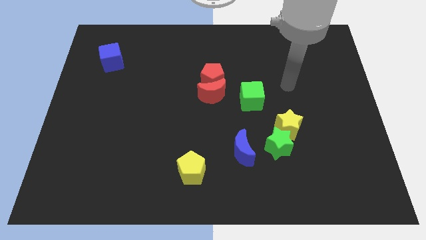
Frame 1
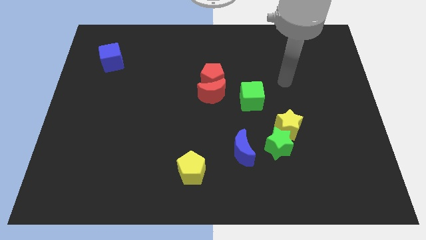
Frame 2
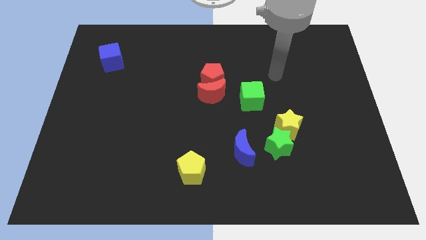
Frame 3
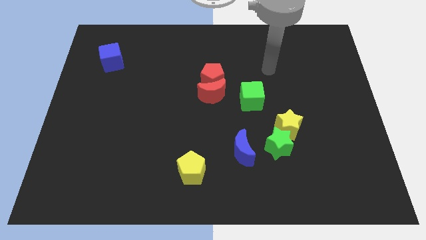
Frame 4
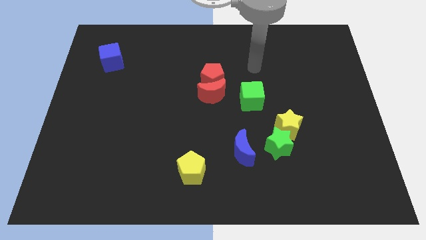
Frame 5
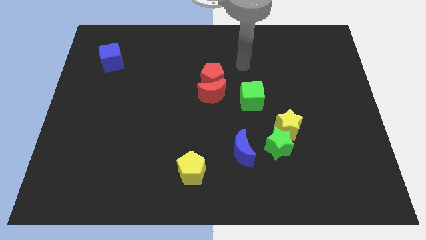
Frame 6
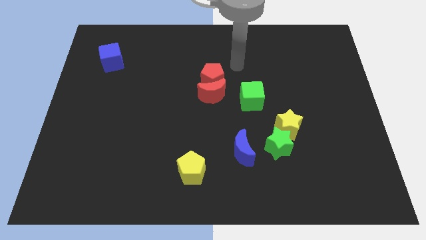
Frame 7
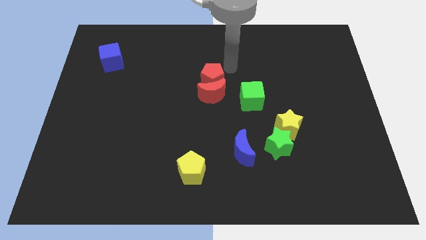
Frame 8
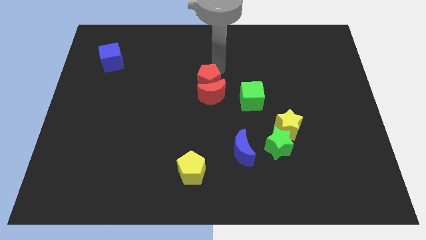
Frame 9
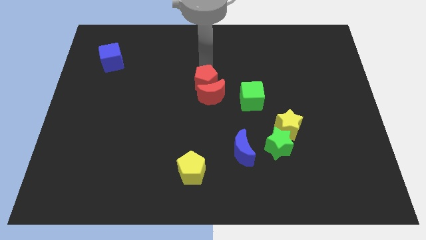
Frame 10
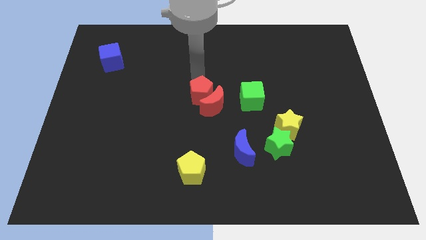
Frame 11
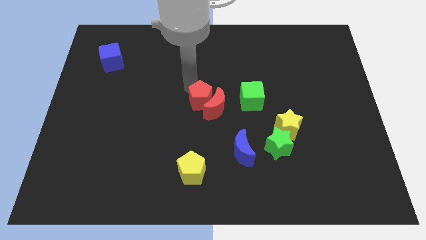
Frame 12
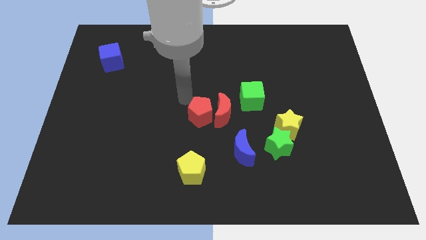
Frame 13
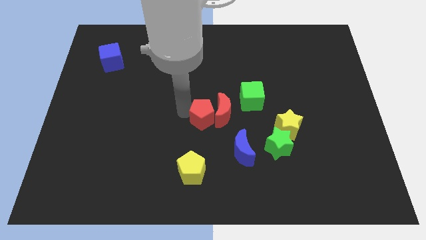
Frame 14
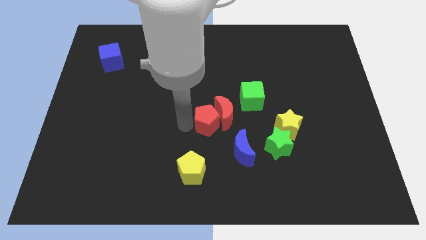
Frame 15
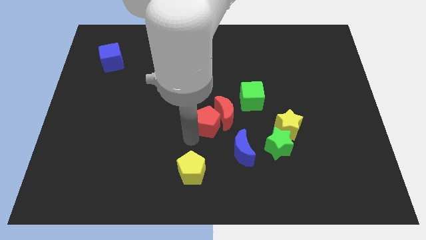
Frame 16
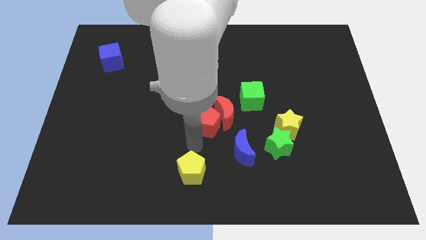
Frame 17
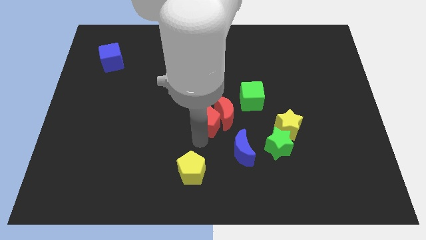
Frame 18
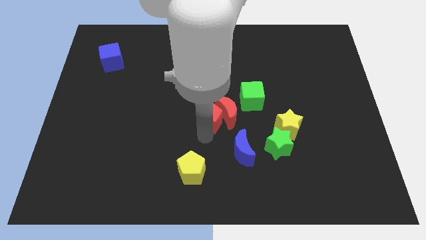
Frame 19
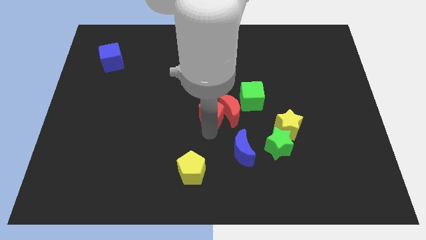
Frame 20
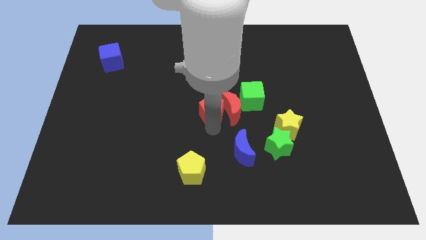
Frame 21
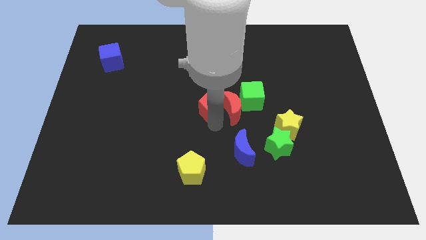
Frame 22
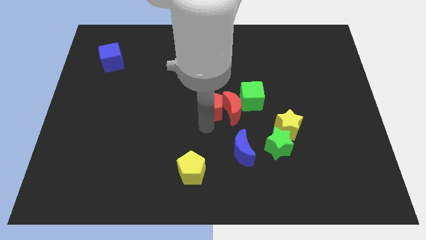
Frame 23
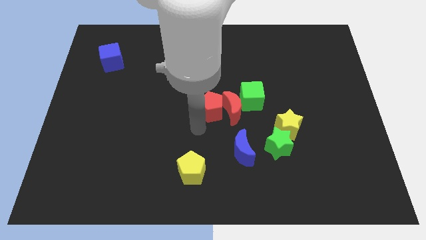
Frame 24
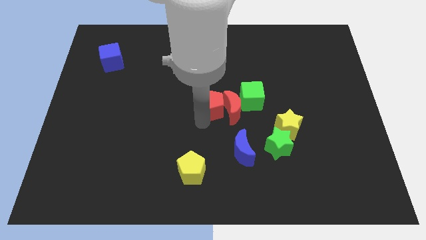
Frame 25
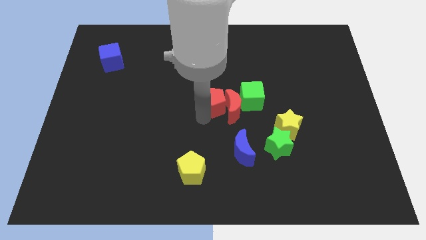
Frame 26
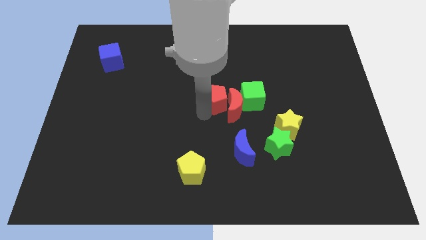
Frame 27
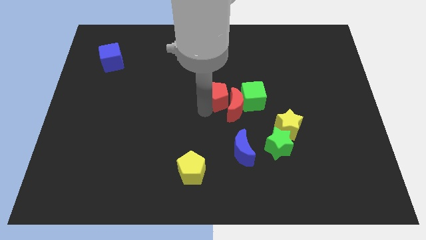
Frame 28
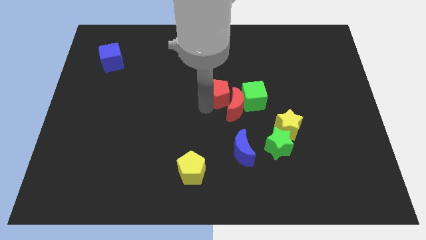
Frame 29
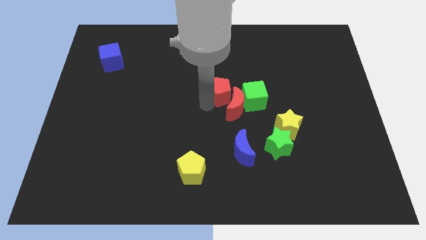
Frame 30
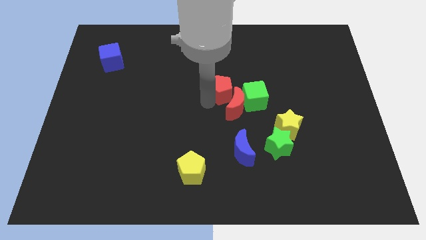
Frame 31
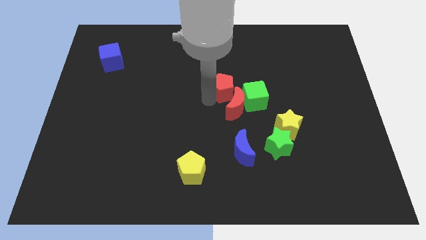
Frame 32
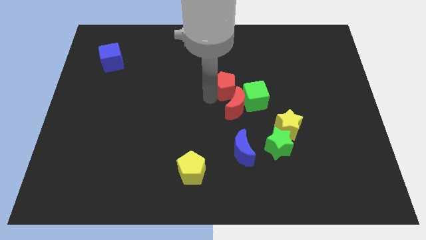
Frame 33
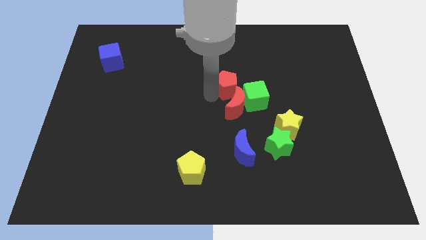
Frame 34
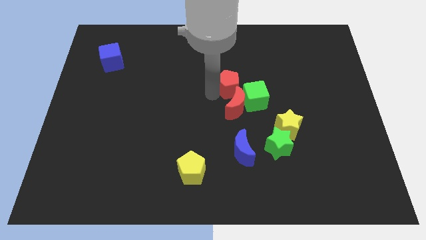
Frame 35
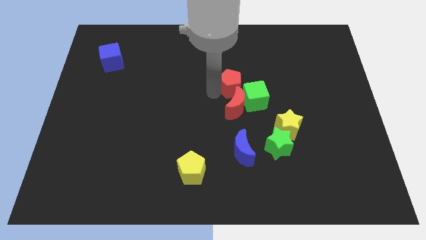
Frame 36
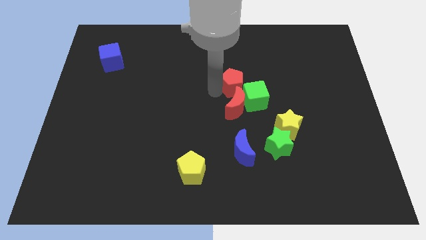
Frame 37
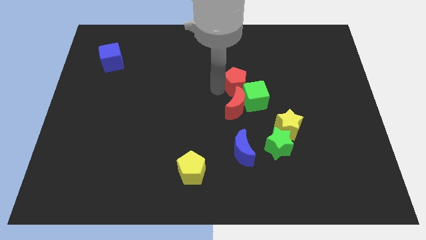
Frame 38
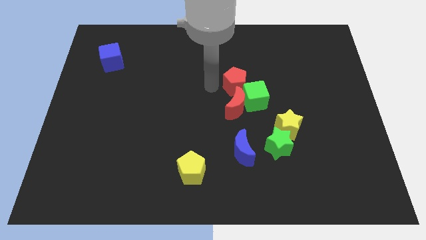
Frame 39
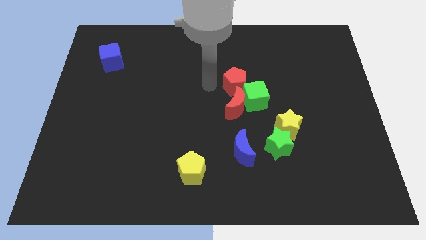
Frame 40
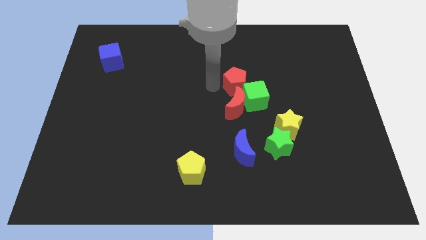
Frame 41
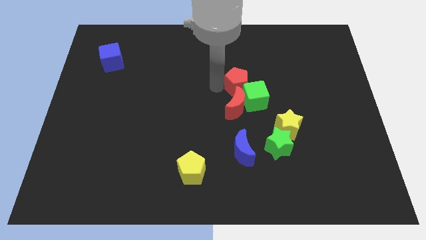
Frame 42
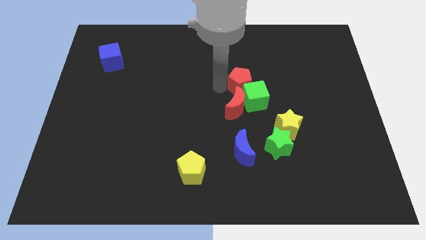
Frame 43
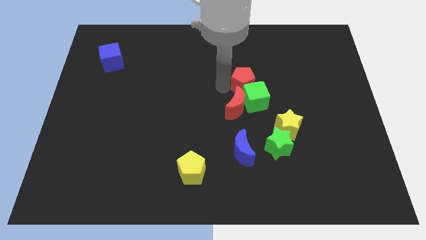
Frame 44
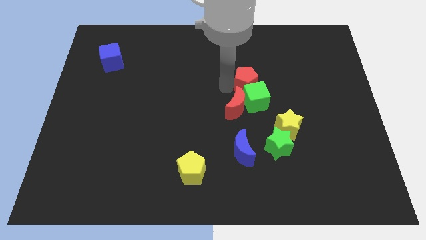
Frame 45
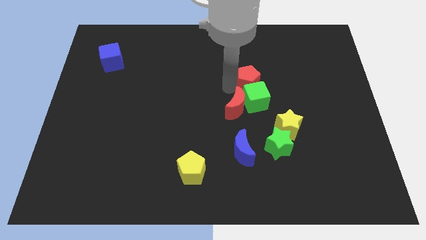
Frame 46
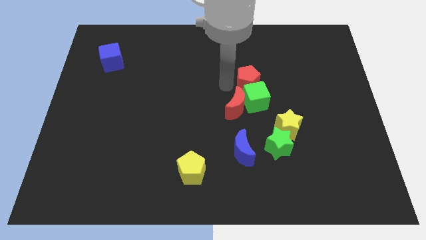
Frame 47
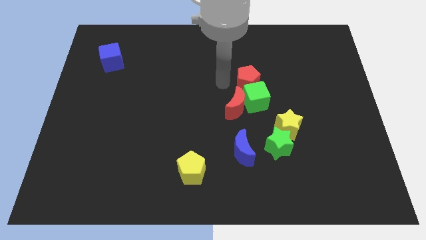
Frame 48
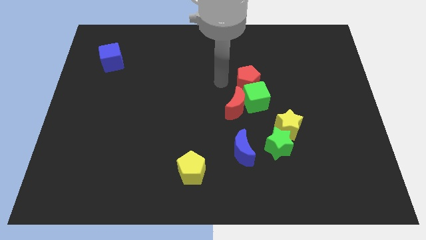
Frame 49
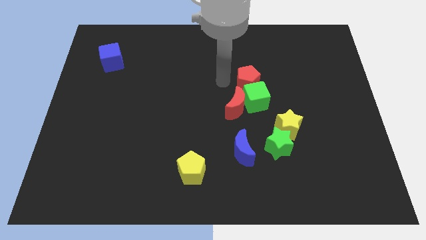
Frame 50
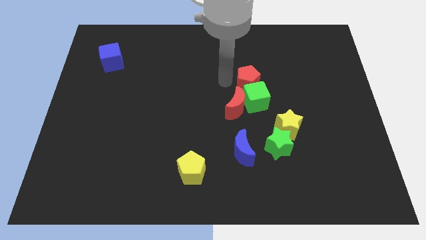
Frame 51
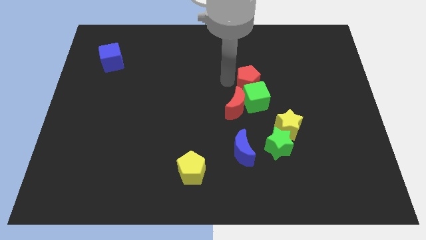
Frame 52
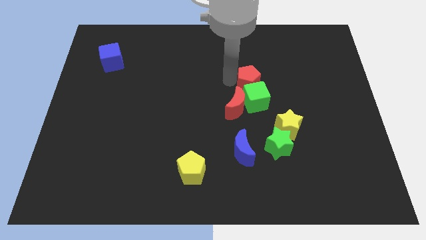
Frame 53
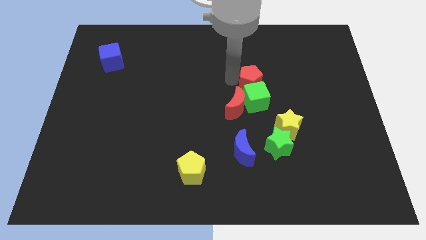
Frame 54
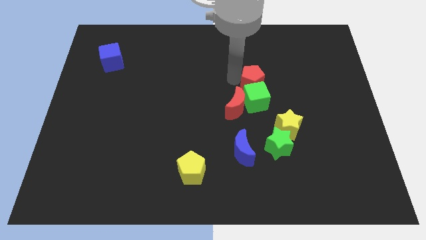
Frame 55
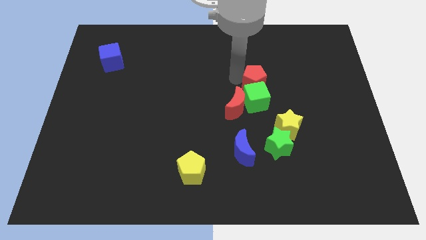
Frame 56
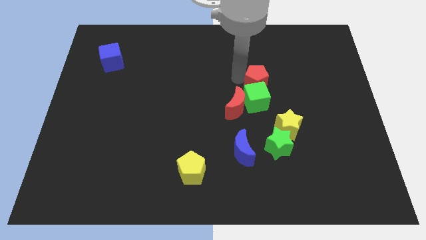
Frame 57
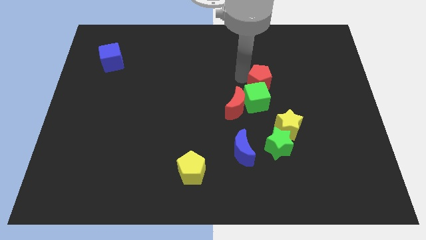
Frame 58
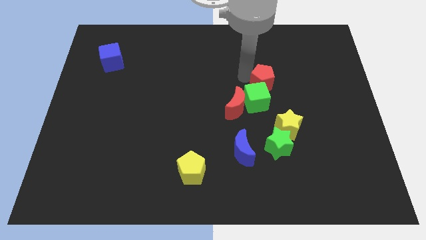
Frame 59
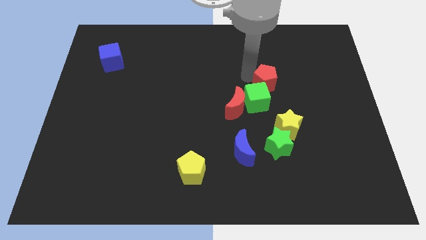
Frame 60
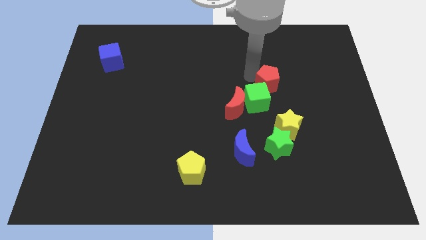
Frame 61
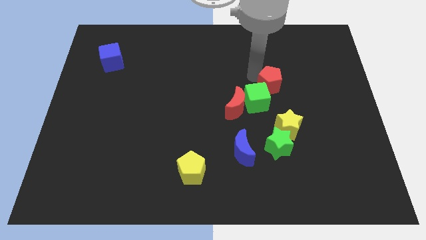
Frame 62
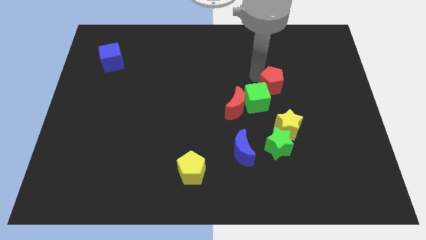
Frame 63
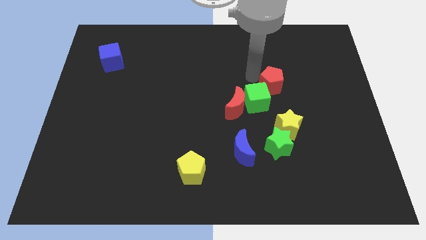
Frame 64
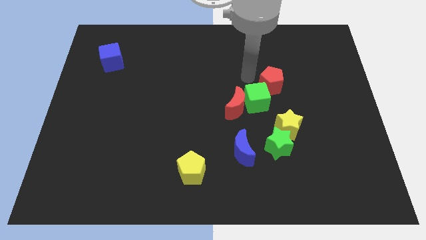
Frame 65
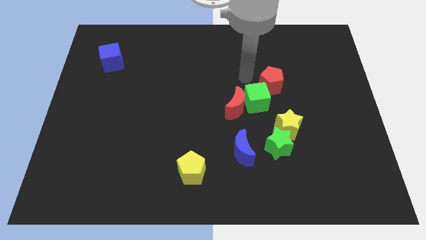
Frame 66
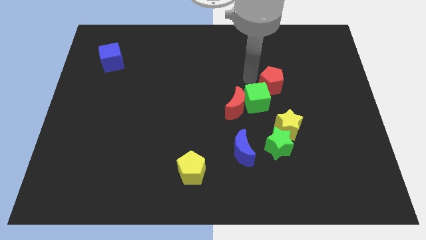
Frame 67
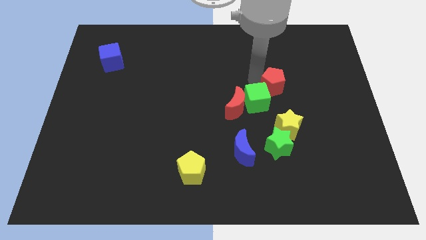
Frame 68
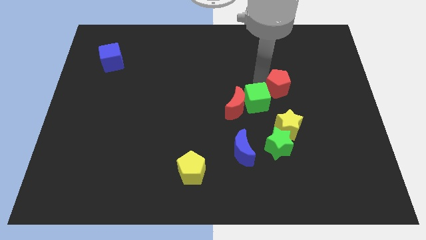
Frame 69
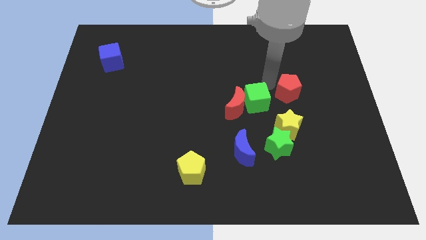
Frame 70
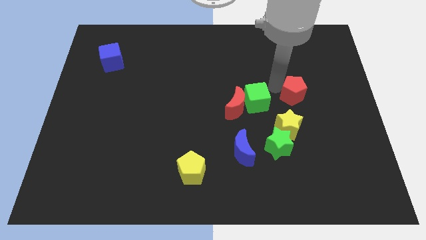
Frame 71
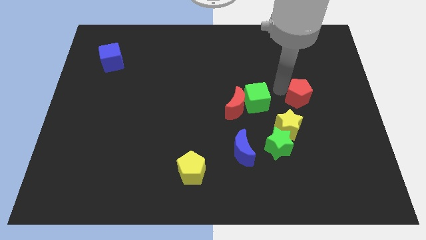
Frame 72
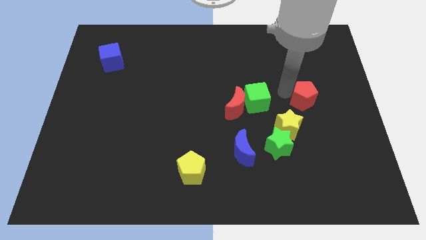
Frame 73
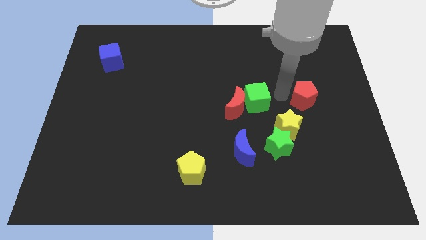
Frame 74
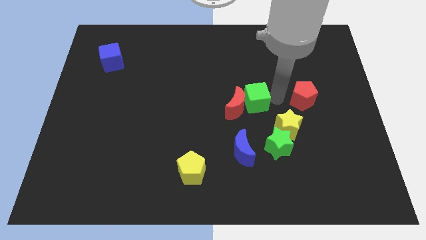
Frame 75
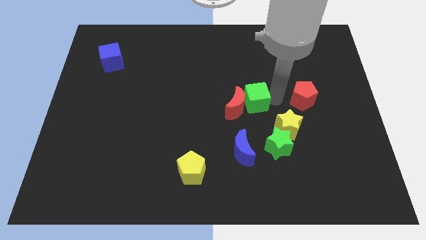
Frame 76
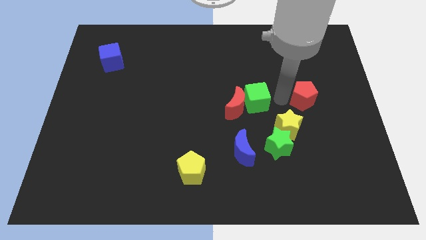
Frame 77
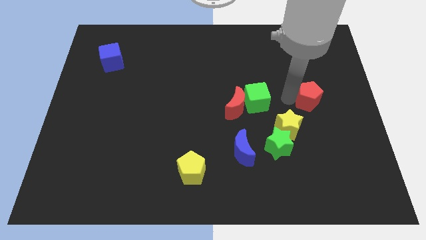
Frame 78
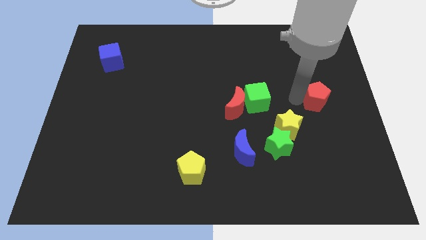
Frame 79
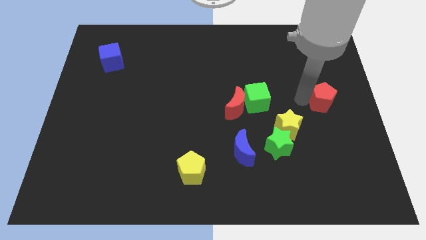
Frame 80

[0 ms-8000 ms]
move the red pentagon to the center right
